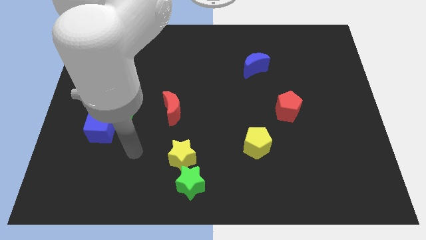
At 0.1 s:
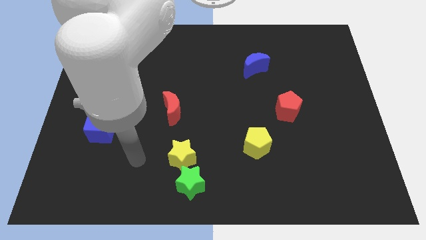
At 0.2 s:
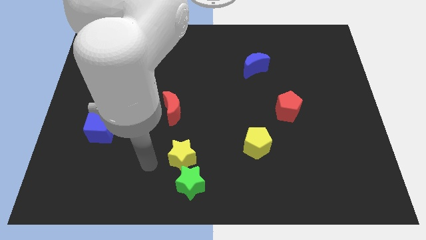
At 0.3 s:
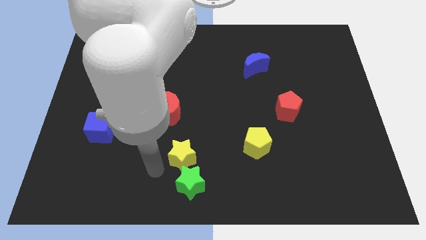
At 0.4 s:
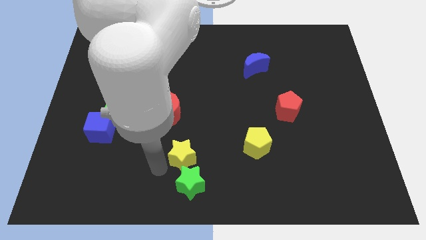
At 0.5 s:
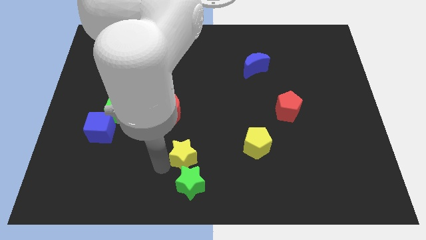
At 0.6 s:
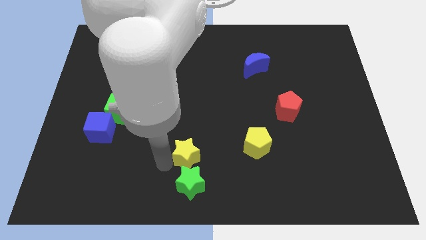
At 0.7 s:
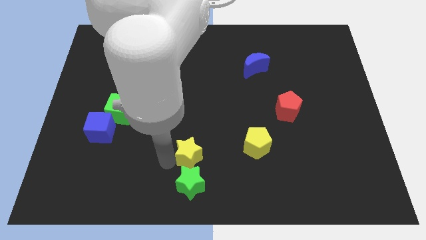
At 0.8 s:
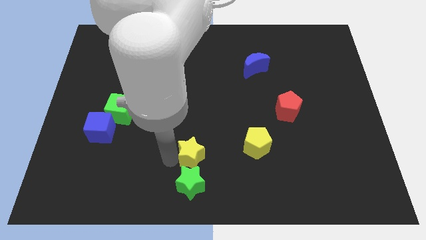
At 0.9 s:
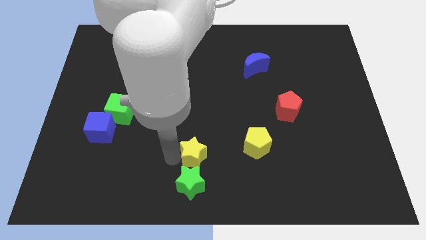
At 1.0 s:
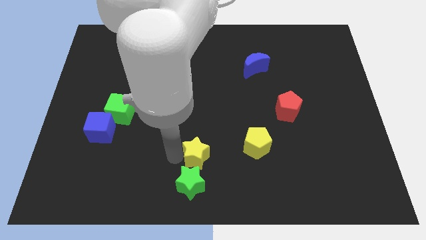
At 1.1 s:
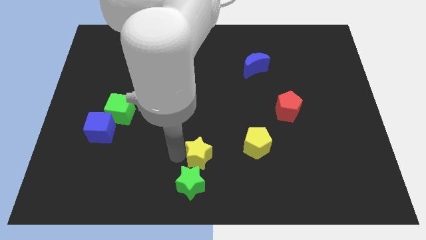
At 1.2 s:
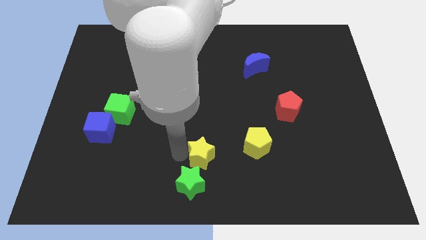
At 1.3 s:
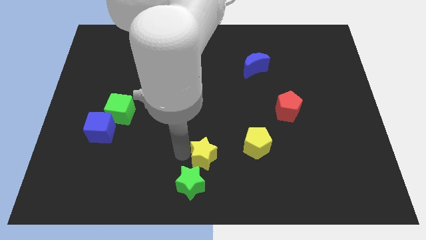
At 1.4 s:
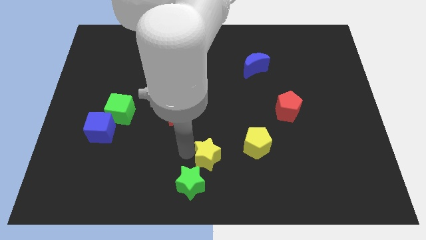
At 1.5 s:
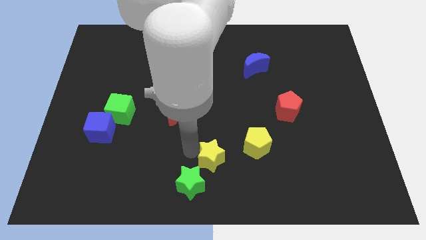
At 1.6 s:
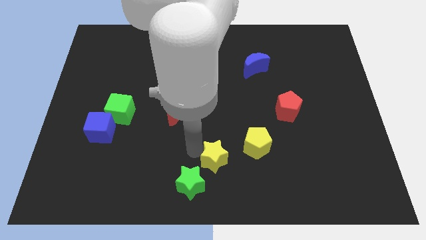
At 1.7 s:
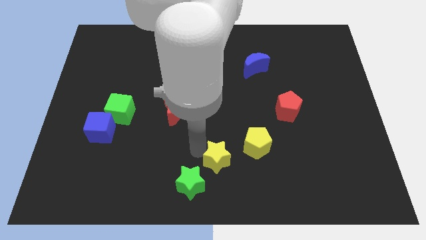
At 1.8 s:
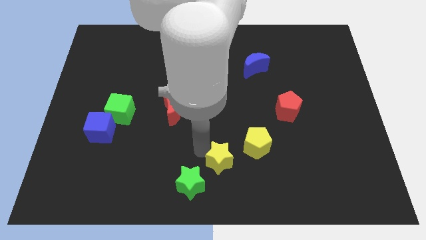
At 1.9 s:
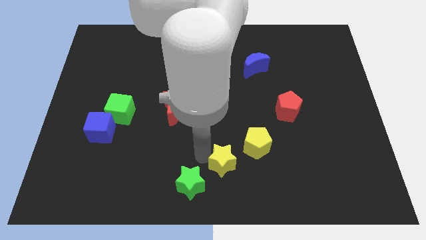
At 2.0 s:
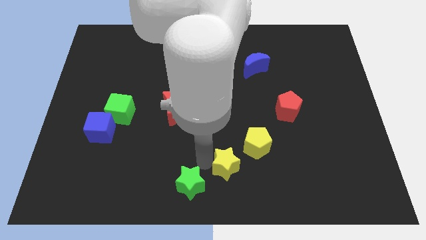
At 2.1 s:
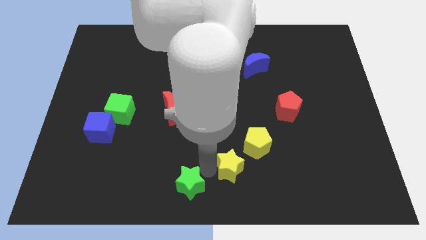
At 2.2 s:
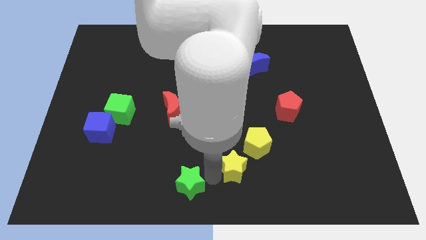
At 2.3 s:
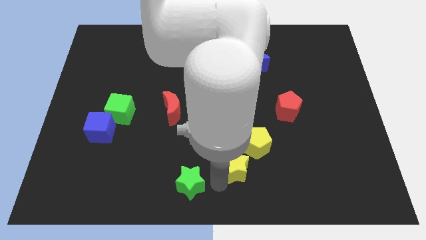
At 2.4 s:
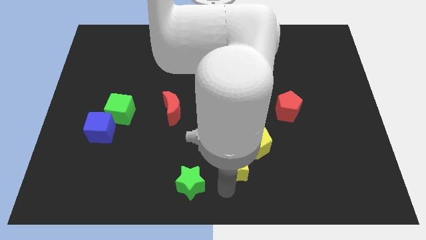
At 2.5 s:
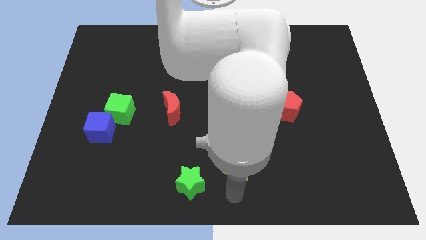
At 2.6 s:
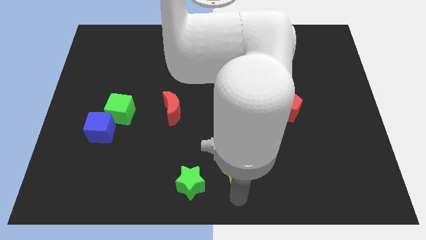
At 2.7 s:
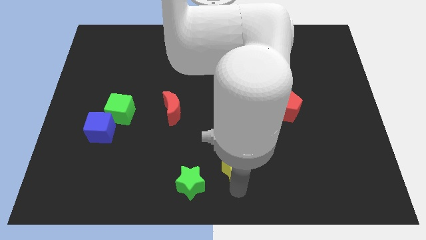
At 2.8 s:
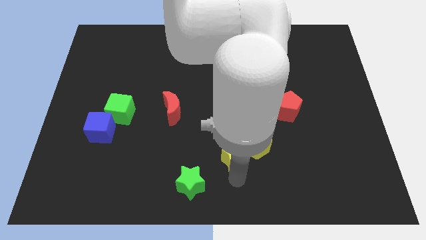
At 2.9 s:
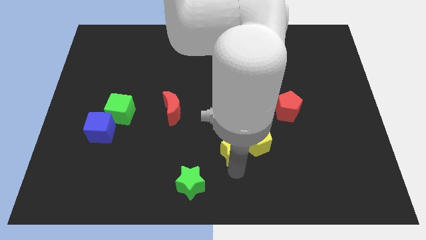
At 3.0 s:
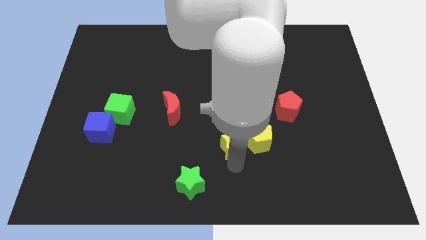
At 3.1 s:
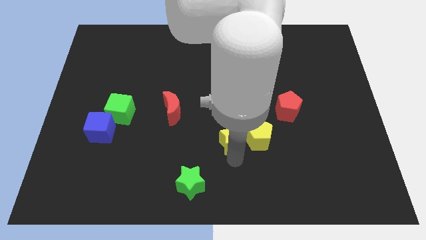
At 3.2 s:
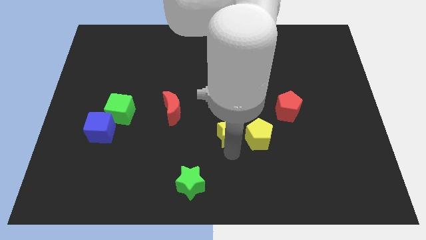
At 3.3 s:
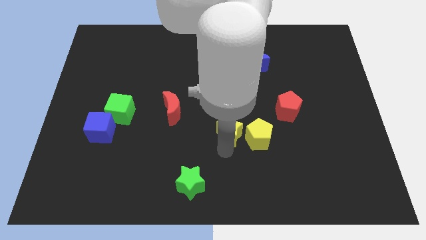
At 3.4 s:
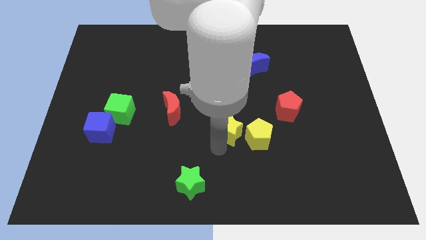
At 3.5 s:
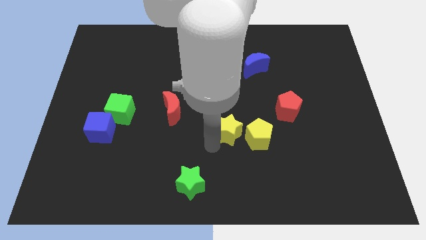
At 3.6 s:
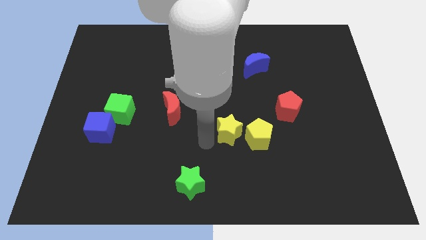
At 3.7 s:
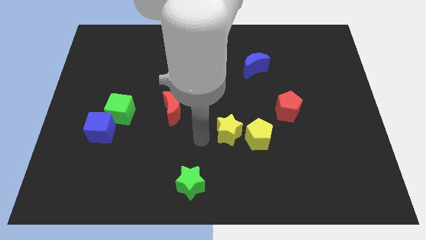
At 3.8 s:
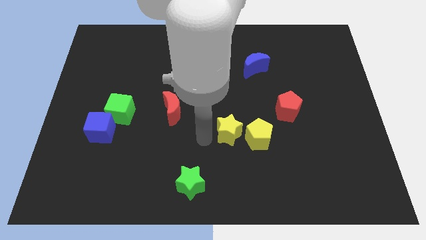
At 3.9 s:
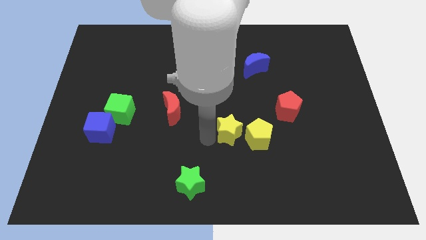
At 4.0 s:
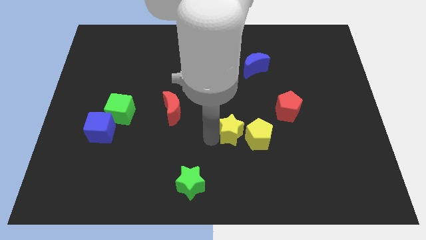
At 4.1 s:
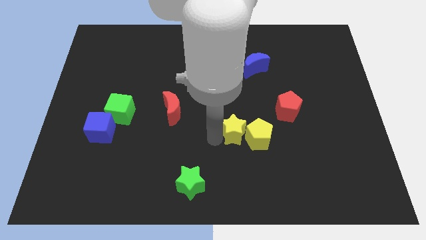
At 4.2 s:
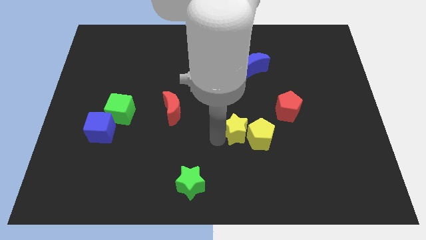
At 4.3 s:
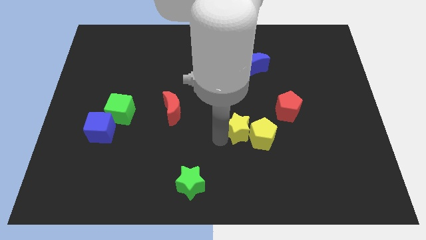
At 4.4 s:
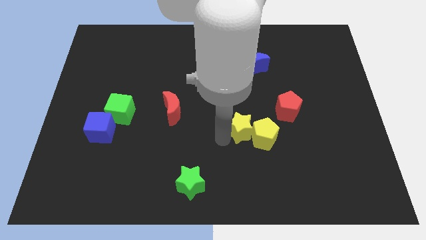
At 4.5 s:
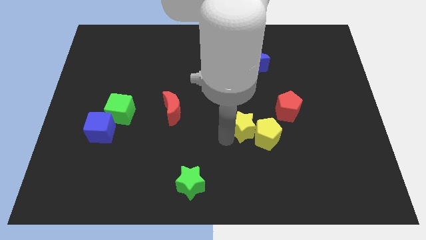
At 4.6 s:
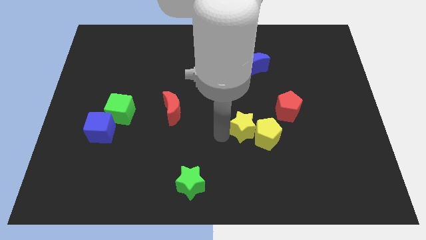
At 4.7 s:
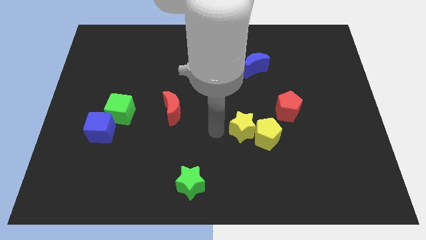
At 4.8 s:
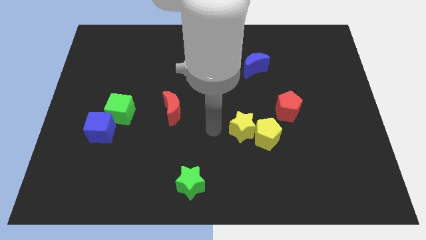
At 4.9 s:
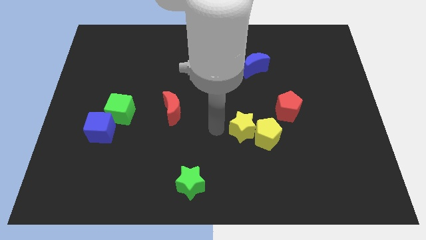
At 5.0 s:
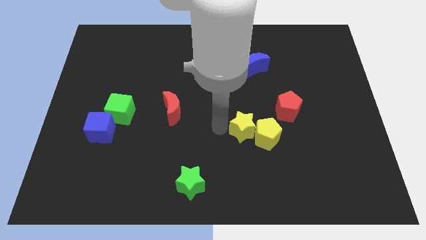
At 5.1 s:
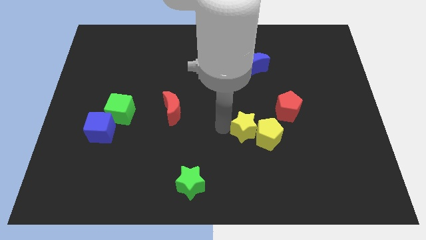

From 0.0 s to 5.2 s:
push the yellow star to the bottom left of the red pentagon

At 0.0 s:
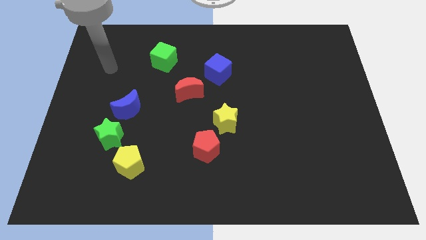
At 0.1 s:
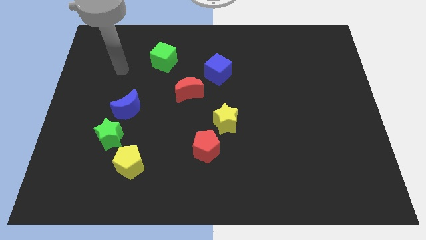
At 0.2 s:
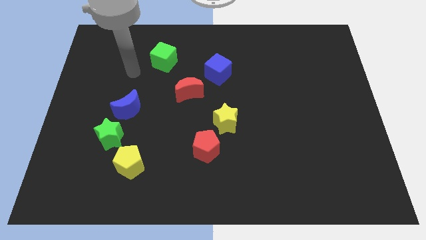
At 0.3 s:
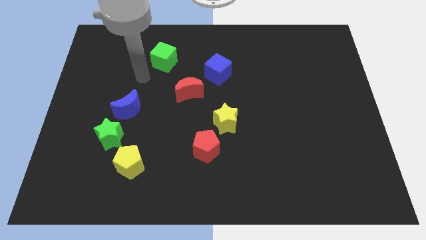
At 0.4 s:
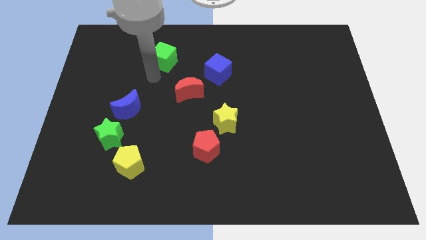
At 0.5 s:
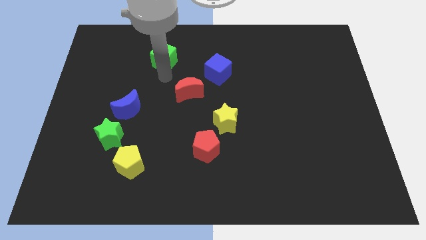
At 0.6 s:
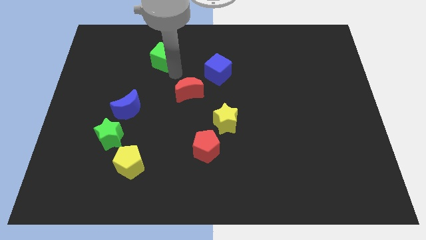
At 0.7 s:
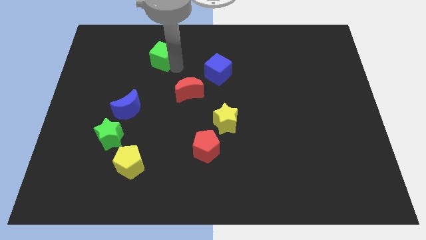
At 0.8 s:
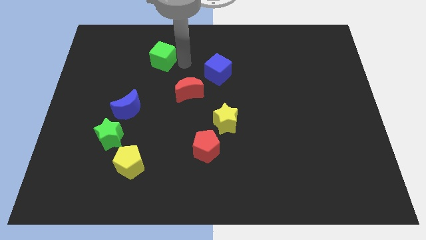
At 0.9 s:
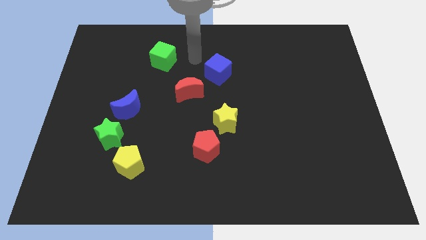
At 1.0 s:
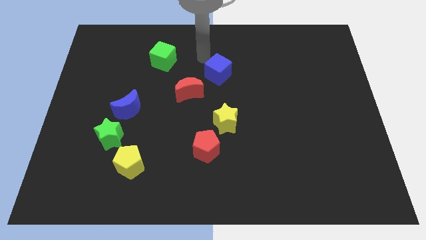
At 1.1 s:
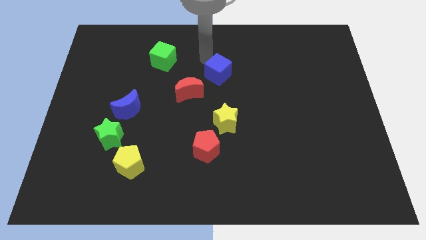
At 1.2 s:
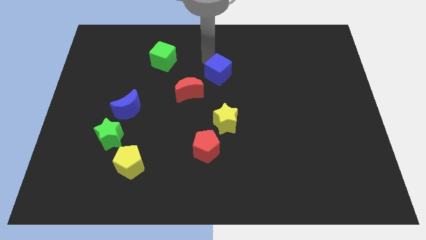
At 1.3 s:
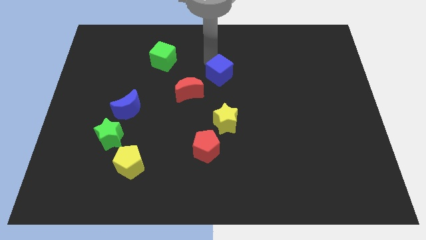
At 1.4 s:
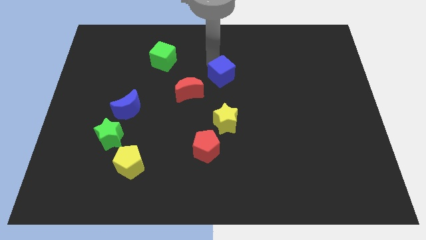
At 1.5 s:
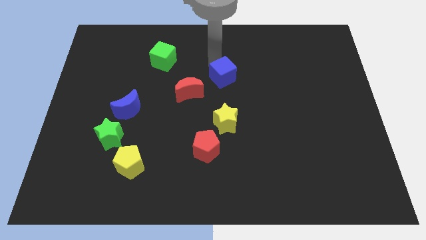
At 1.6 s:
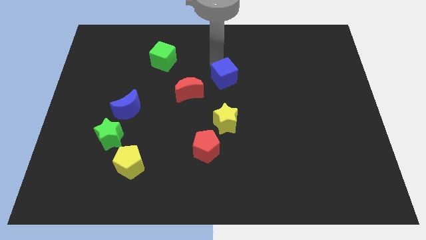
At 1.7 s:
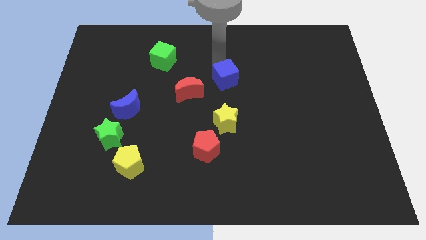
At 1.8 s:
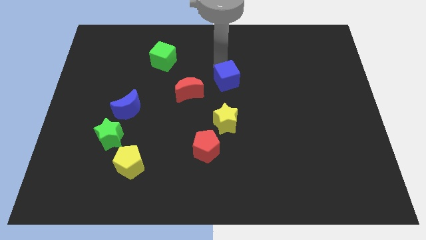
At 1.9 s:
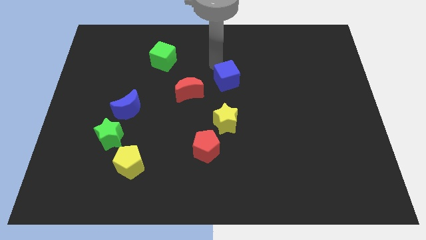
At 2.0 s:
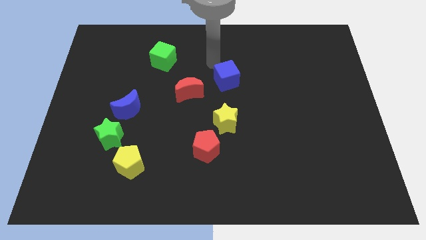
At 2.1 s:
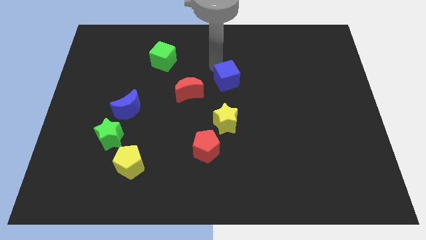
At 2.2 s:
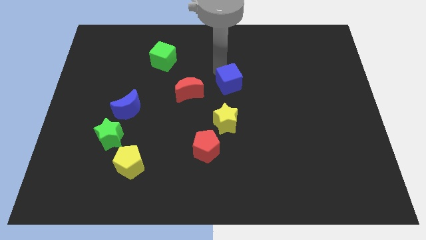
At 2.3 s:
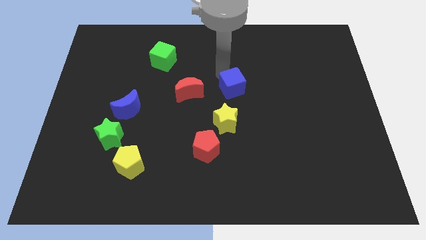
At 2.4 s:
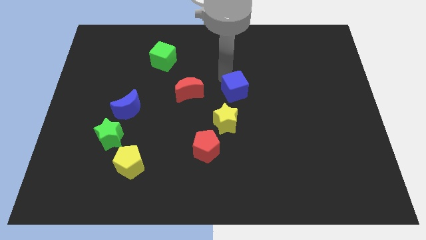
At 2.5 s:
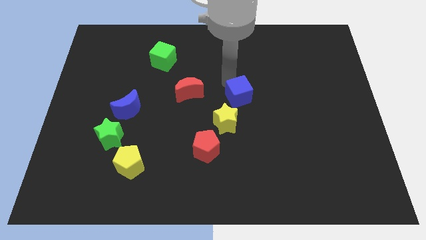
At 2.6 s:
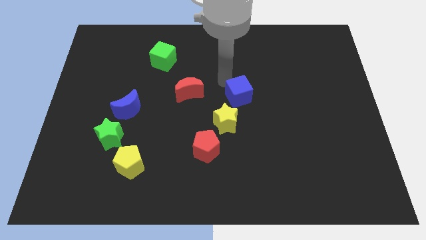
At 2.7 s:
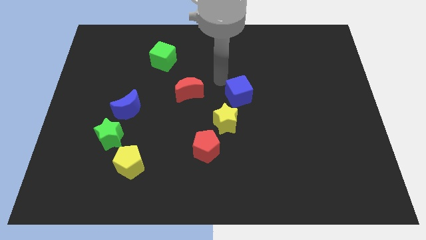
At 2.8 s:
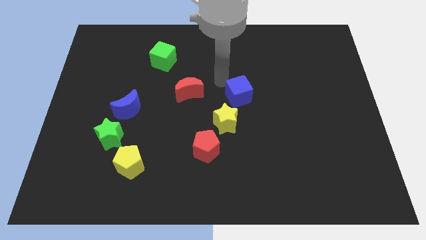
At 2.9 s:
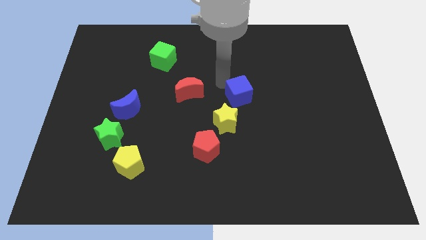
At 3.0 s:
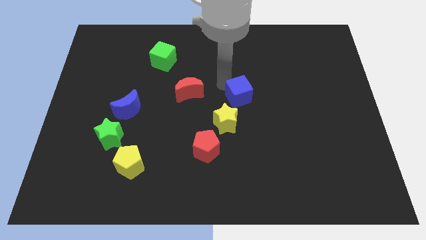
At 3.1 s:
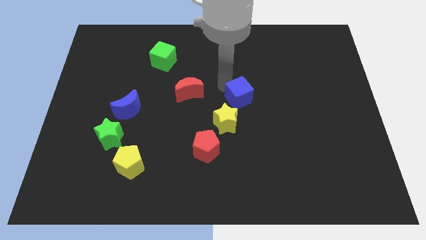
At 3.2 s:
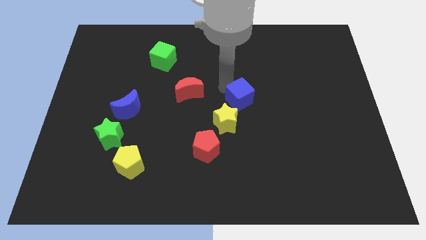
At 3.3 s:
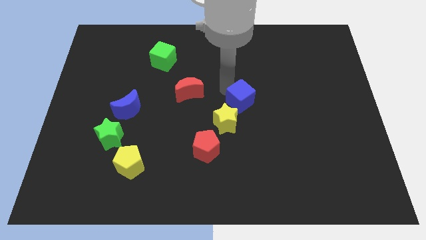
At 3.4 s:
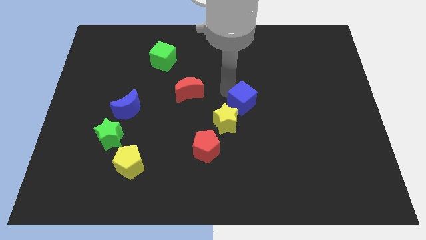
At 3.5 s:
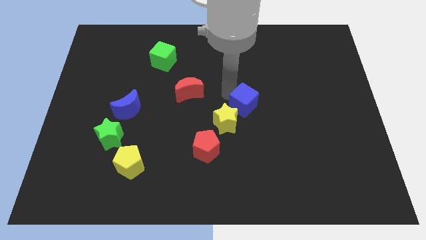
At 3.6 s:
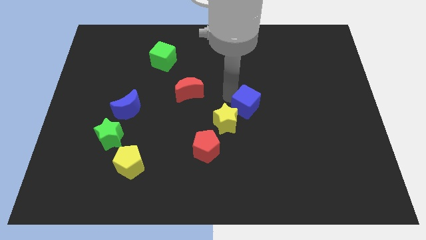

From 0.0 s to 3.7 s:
put the blue cube to the right side of the yellow star
